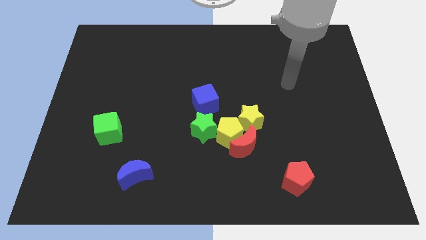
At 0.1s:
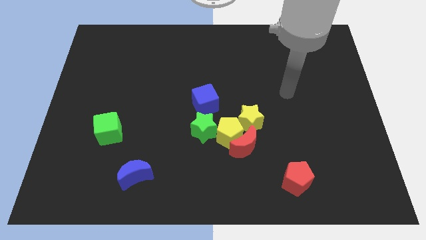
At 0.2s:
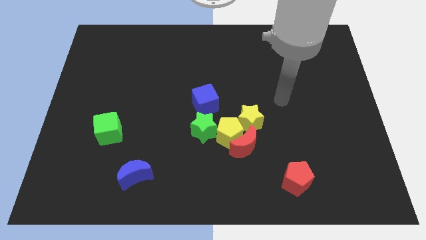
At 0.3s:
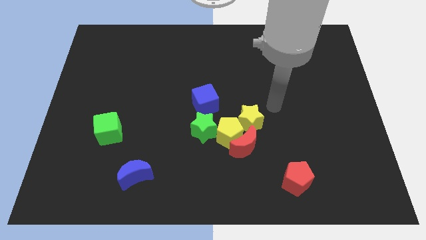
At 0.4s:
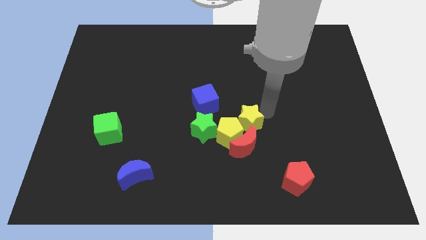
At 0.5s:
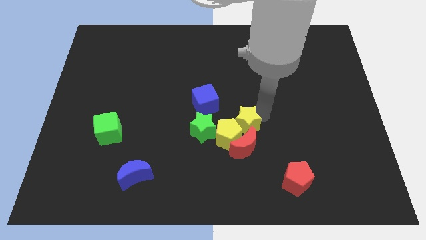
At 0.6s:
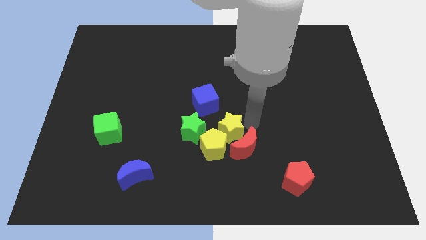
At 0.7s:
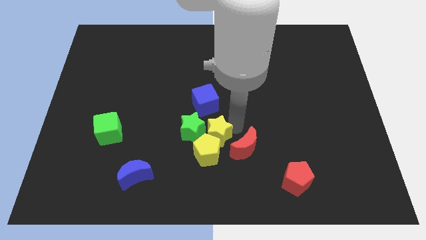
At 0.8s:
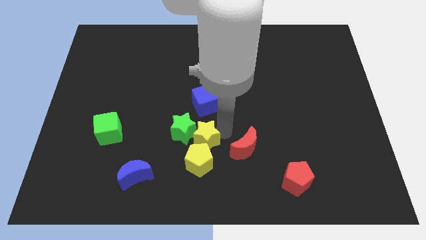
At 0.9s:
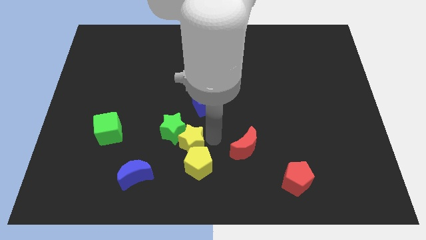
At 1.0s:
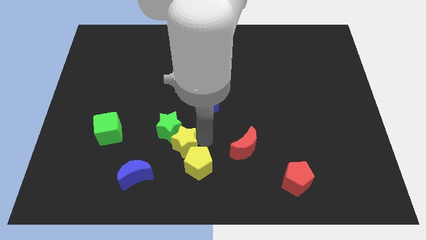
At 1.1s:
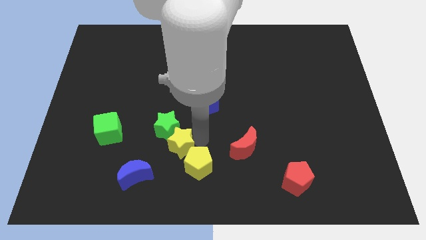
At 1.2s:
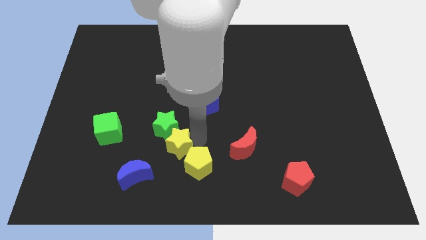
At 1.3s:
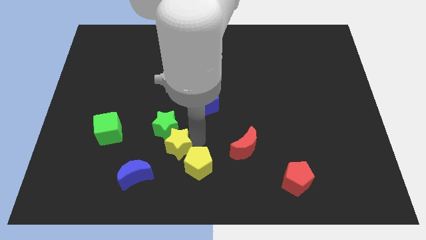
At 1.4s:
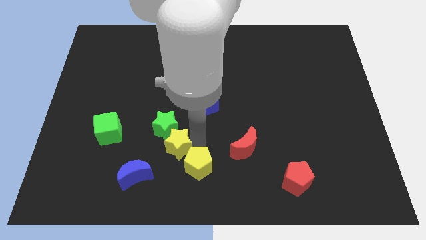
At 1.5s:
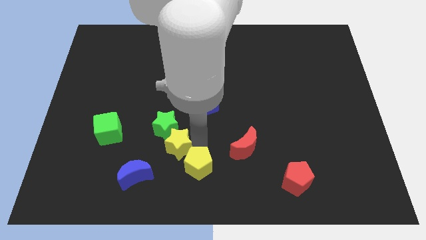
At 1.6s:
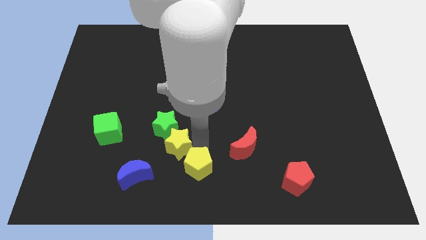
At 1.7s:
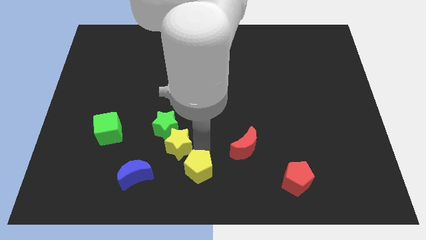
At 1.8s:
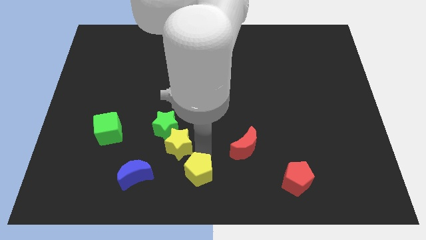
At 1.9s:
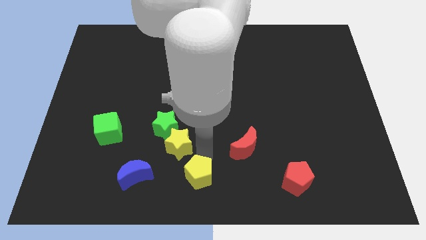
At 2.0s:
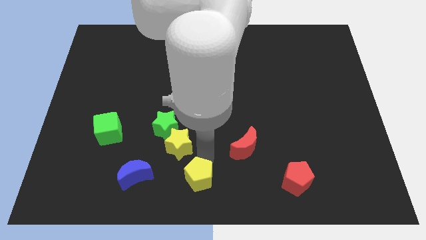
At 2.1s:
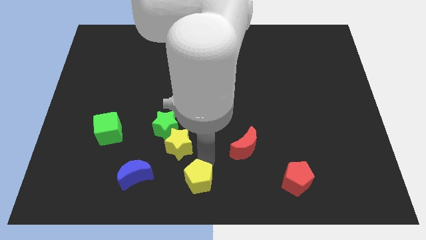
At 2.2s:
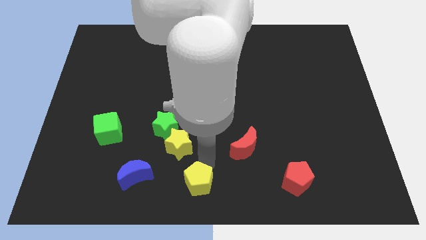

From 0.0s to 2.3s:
separate the yellow pentagon from the clump

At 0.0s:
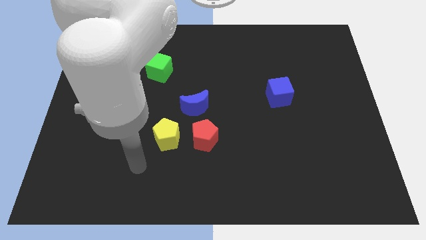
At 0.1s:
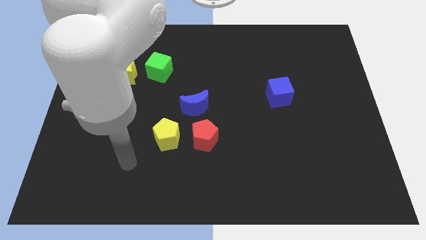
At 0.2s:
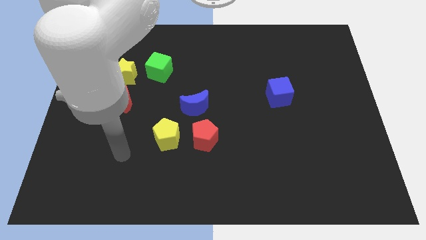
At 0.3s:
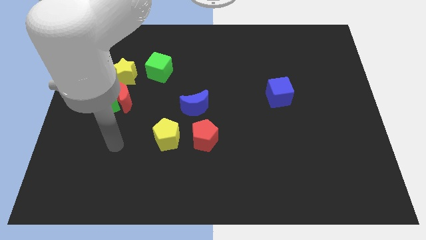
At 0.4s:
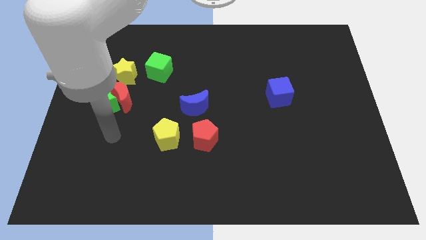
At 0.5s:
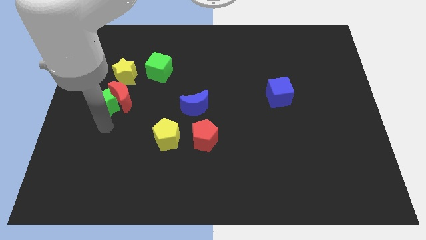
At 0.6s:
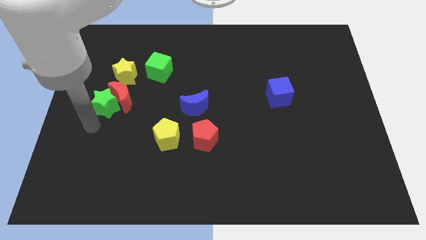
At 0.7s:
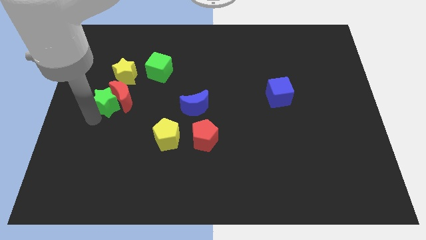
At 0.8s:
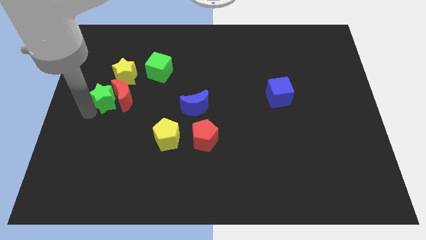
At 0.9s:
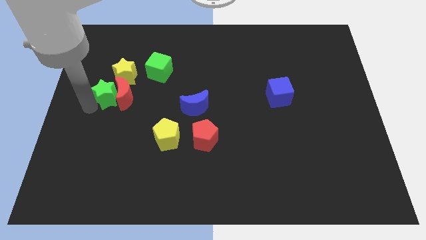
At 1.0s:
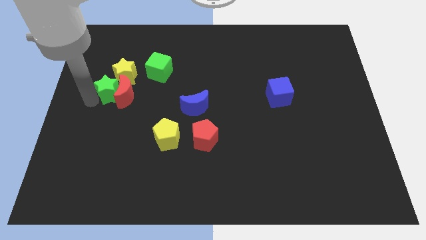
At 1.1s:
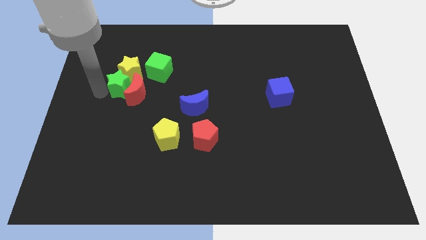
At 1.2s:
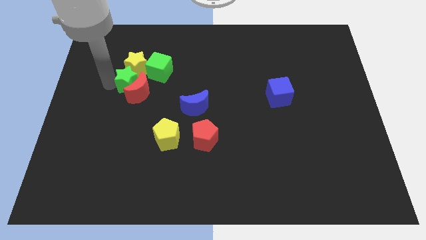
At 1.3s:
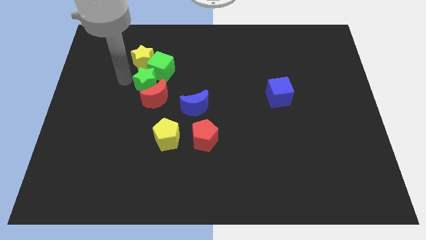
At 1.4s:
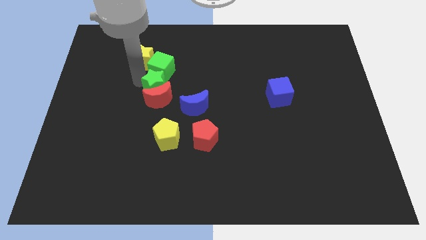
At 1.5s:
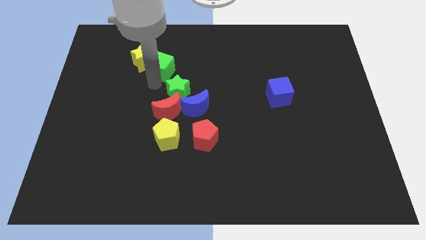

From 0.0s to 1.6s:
pull the red moon apart from the green star and yellow star

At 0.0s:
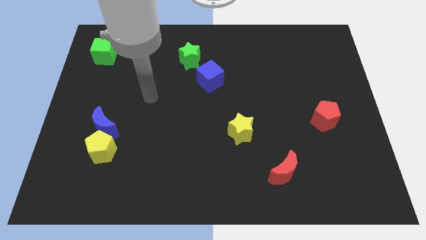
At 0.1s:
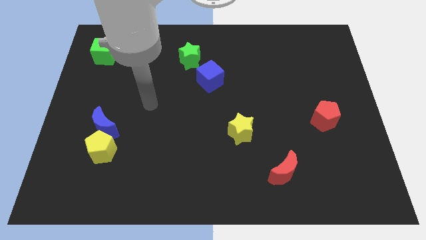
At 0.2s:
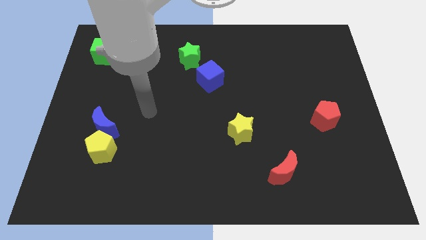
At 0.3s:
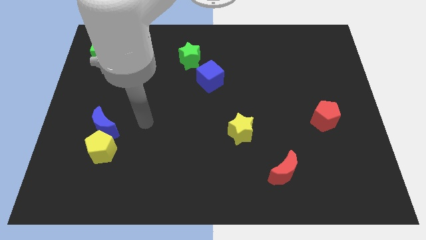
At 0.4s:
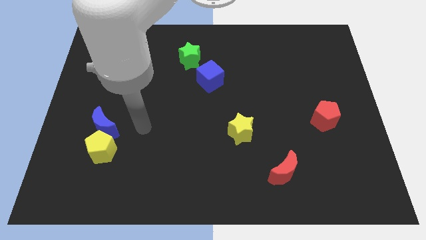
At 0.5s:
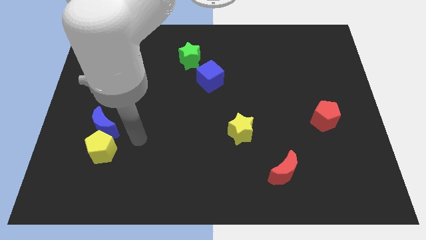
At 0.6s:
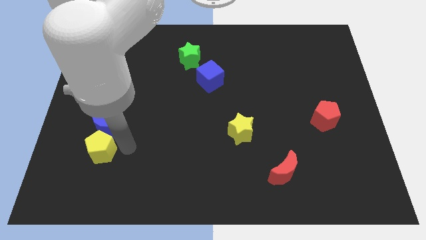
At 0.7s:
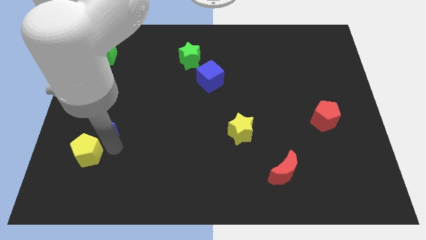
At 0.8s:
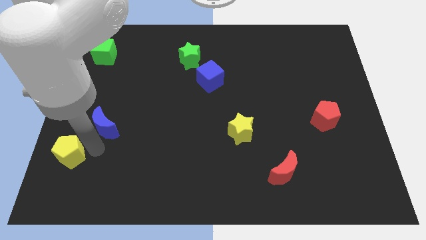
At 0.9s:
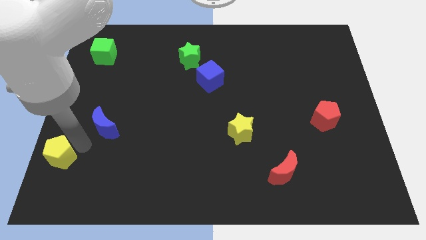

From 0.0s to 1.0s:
pull the blue moon apart from the yellow pentagon

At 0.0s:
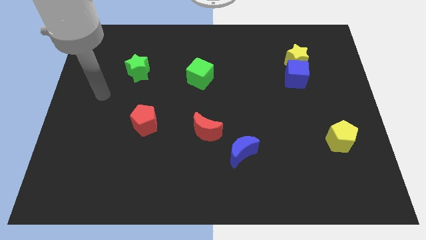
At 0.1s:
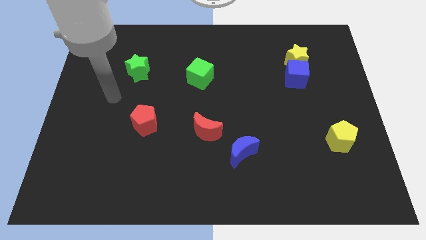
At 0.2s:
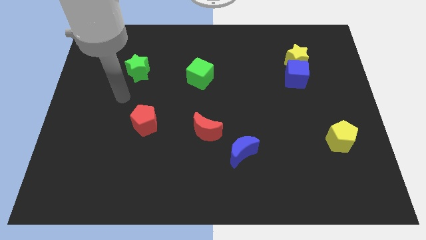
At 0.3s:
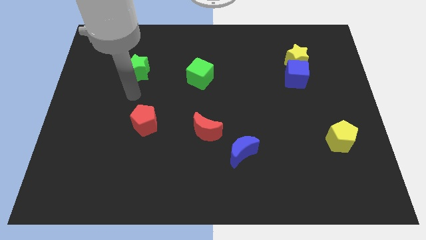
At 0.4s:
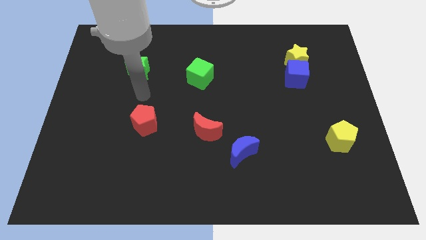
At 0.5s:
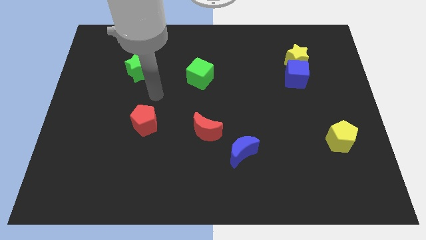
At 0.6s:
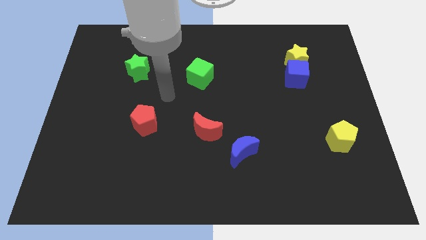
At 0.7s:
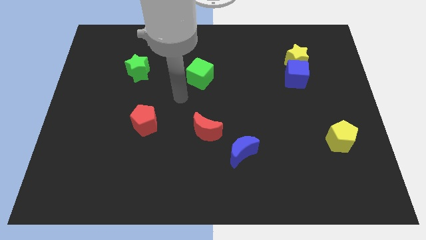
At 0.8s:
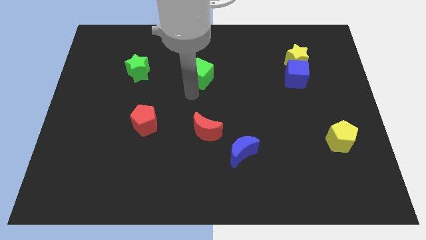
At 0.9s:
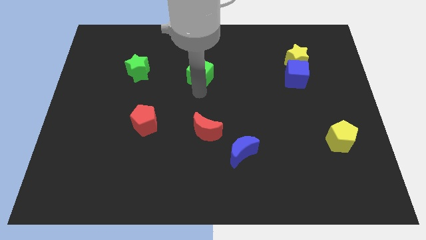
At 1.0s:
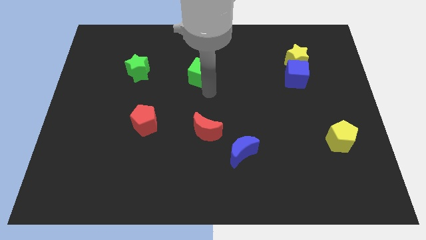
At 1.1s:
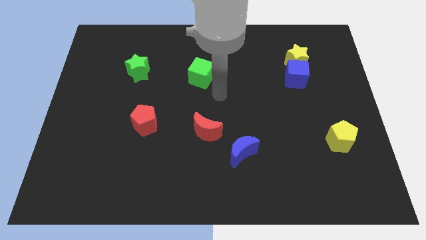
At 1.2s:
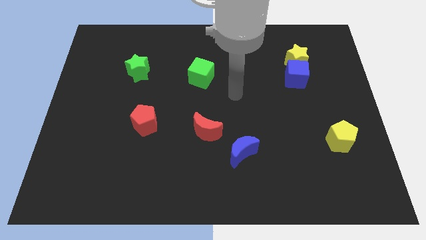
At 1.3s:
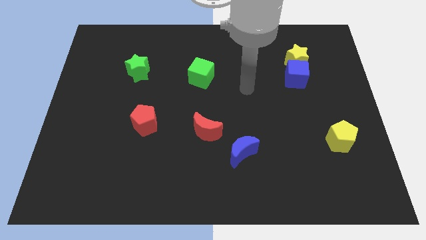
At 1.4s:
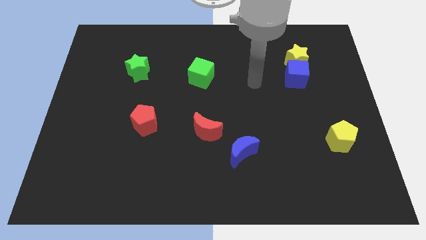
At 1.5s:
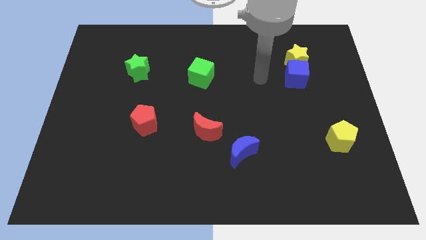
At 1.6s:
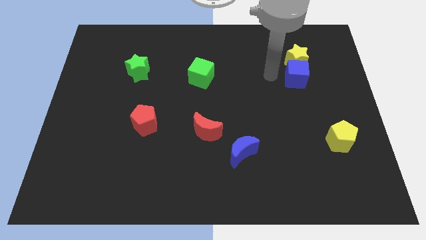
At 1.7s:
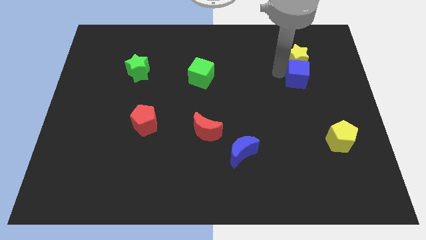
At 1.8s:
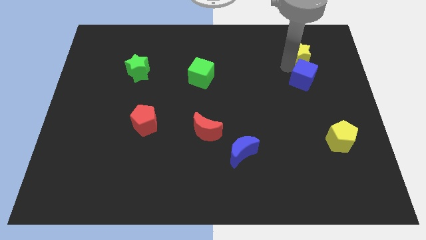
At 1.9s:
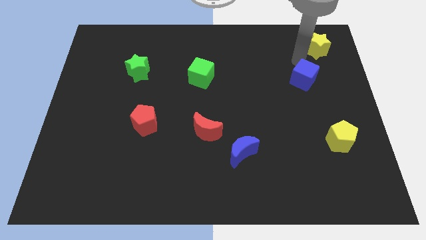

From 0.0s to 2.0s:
move the blue cube away from the yellow star

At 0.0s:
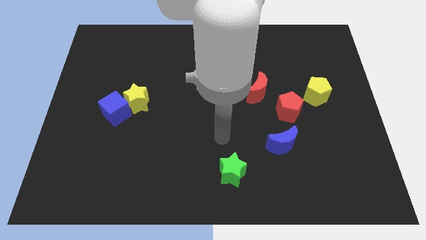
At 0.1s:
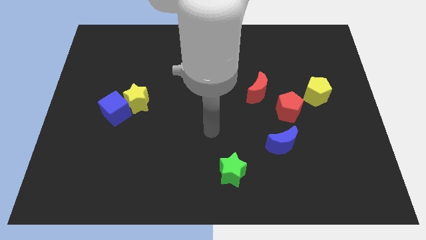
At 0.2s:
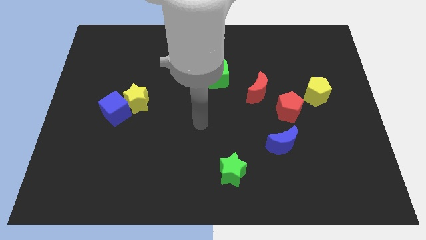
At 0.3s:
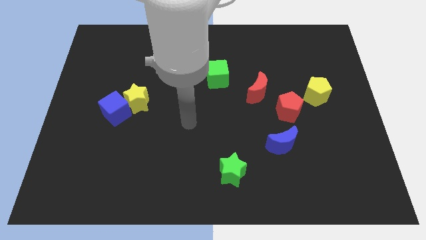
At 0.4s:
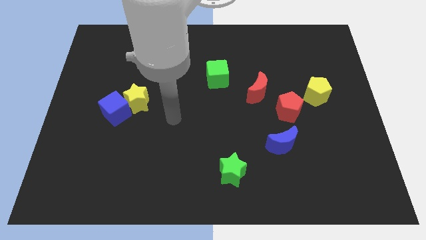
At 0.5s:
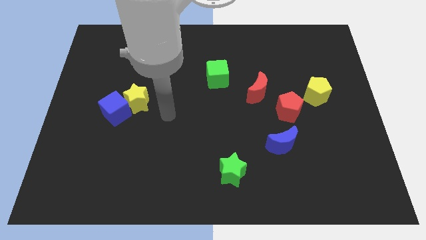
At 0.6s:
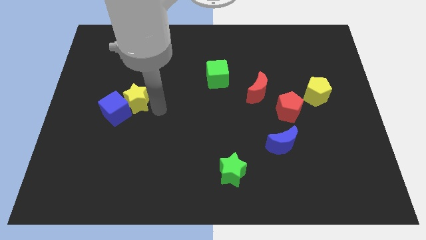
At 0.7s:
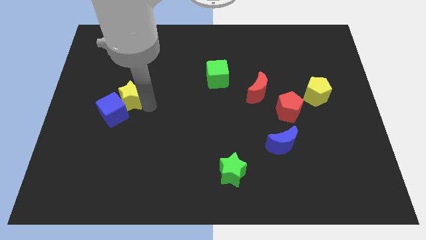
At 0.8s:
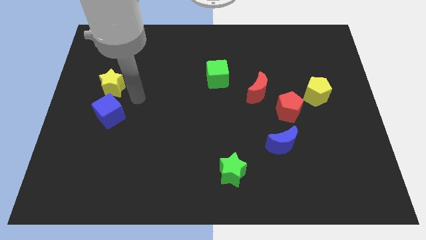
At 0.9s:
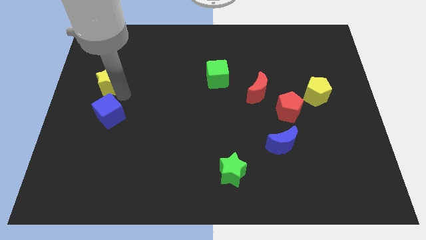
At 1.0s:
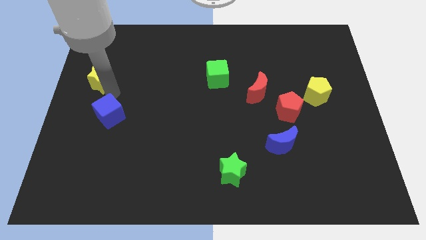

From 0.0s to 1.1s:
separate the blue cube from the yellow star

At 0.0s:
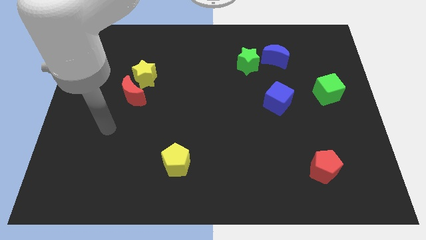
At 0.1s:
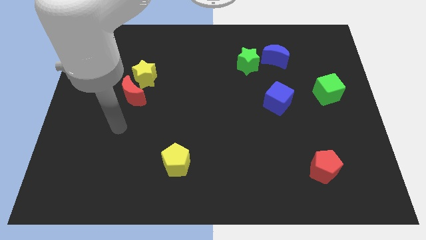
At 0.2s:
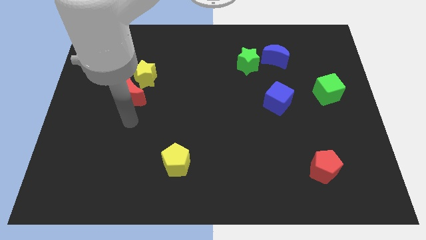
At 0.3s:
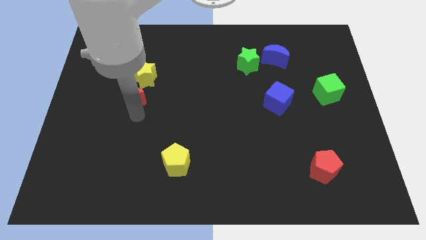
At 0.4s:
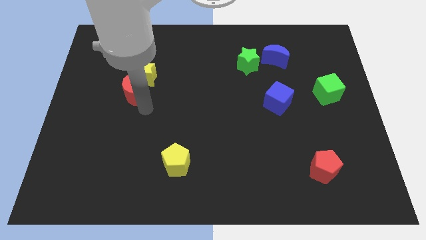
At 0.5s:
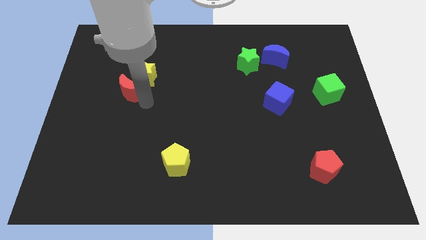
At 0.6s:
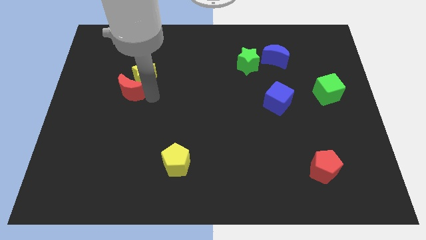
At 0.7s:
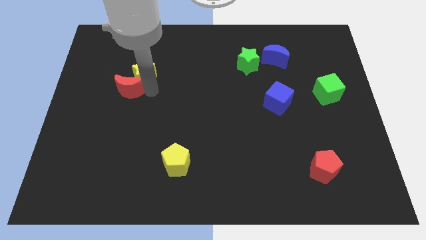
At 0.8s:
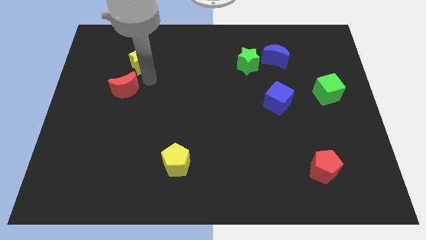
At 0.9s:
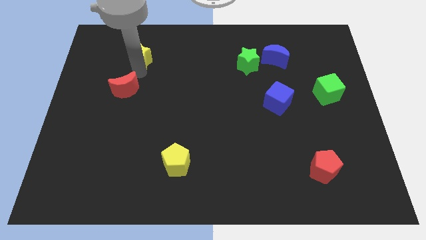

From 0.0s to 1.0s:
separate the red moon from the yellow star

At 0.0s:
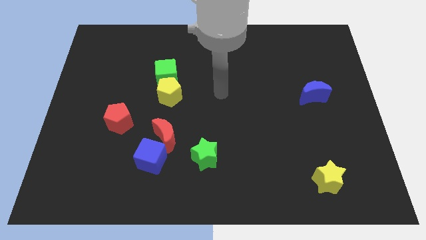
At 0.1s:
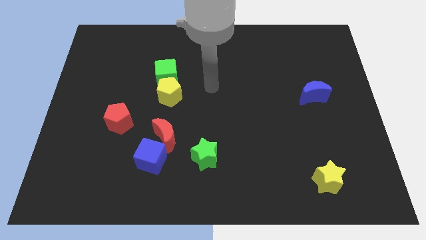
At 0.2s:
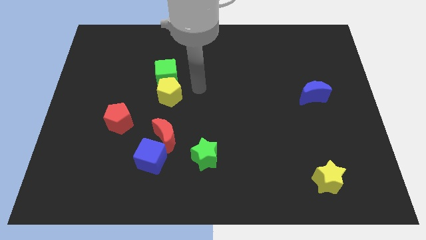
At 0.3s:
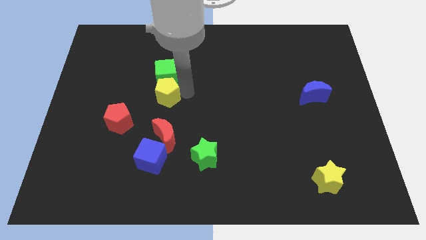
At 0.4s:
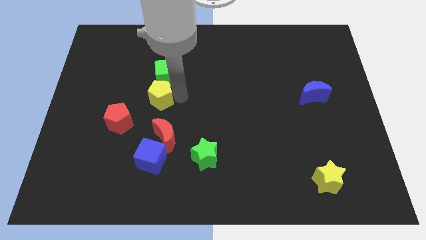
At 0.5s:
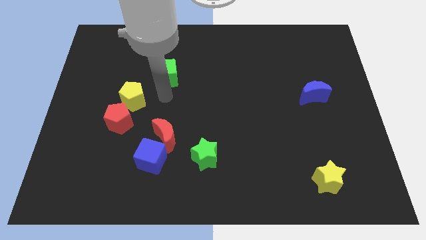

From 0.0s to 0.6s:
move the green cube away from the yellow pentagon
